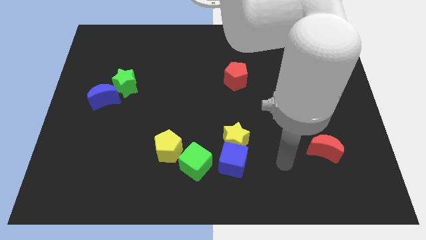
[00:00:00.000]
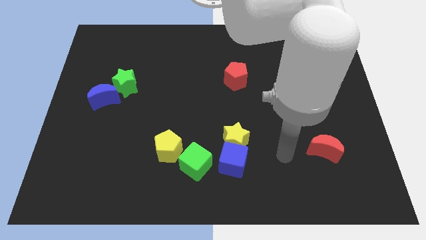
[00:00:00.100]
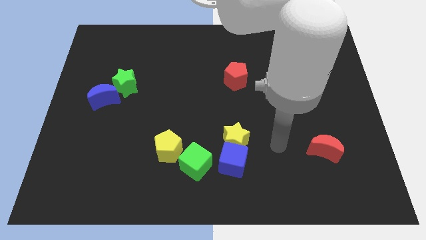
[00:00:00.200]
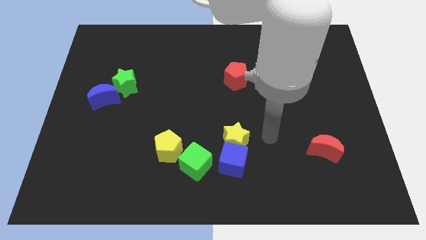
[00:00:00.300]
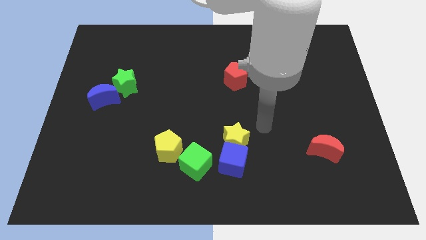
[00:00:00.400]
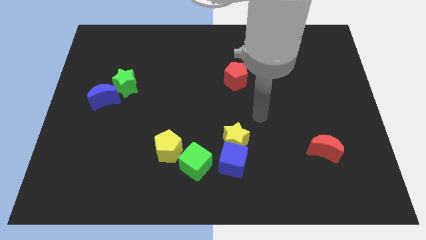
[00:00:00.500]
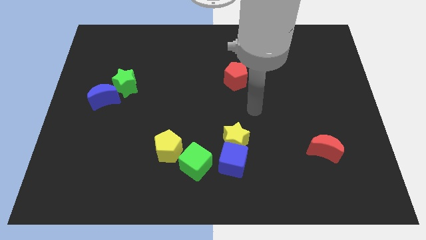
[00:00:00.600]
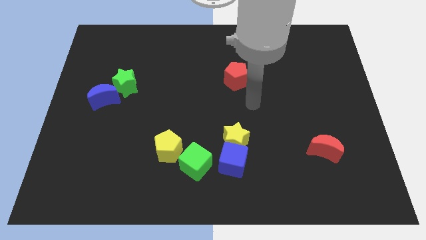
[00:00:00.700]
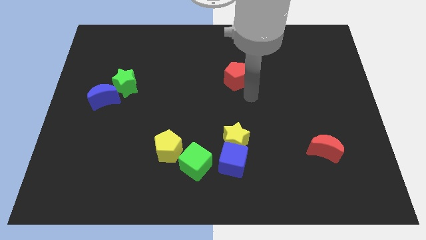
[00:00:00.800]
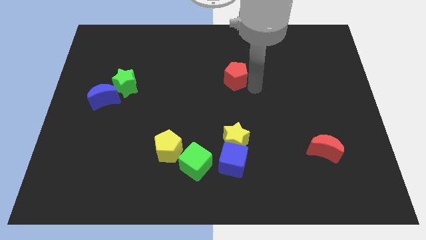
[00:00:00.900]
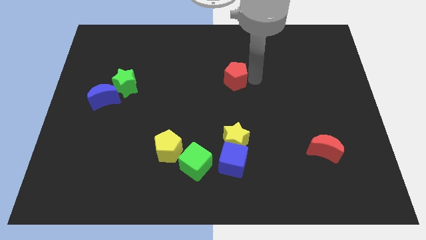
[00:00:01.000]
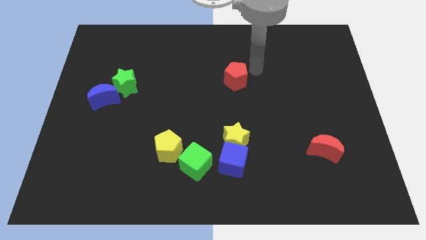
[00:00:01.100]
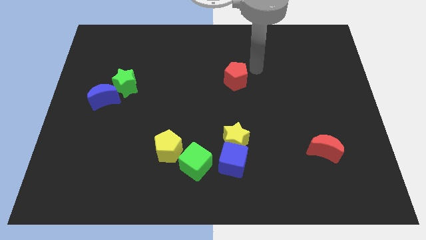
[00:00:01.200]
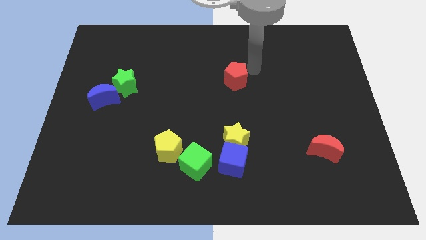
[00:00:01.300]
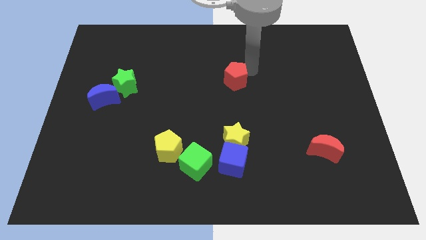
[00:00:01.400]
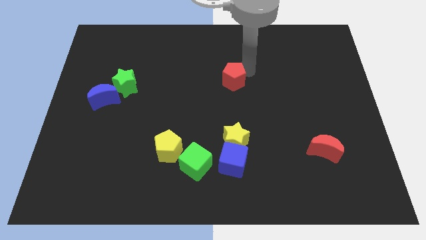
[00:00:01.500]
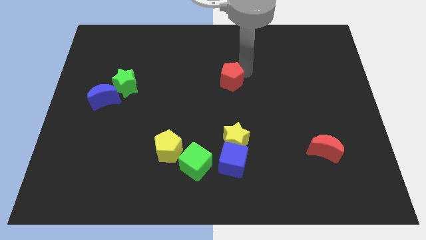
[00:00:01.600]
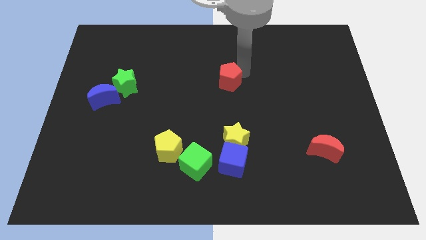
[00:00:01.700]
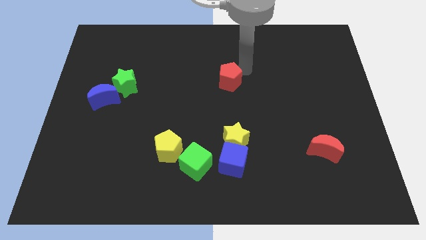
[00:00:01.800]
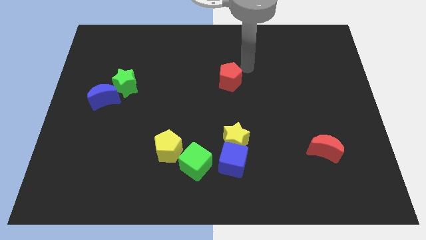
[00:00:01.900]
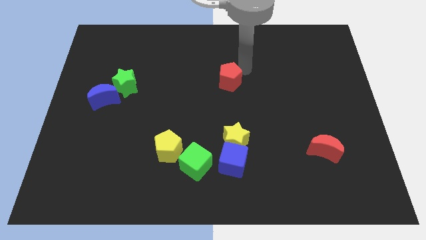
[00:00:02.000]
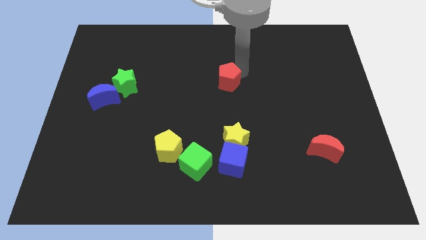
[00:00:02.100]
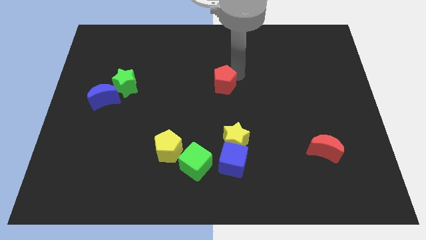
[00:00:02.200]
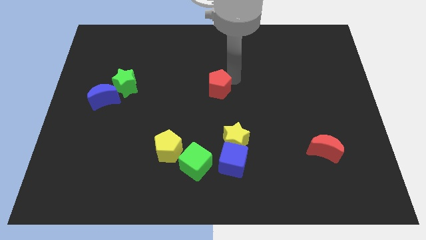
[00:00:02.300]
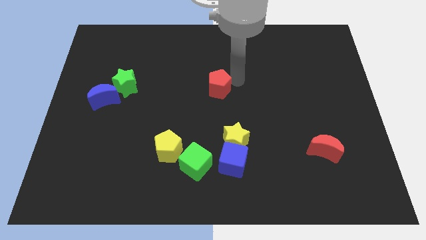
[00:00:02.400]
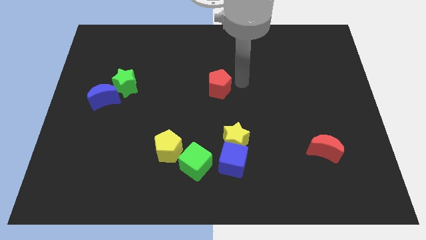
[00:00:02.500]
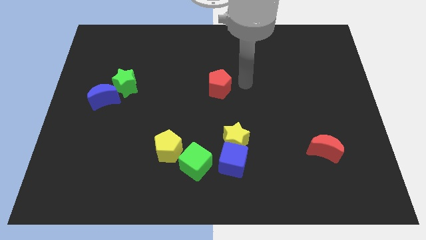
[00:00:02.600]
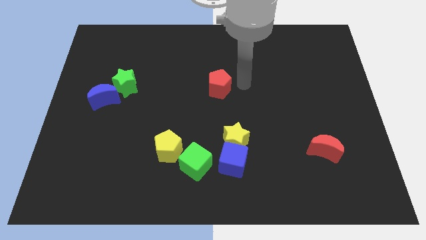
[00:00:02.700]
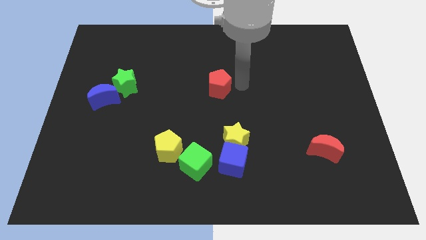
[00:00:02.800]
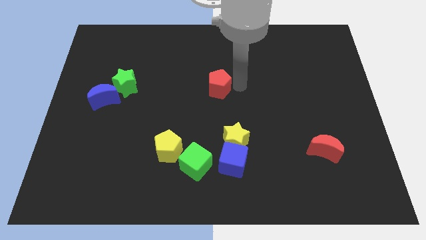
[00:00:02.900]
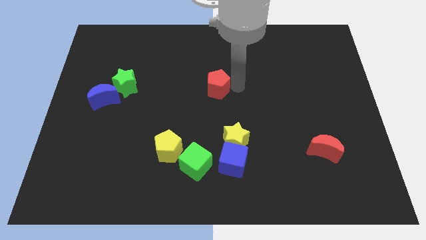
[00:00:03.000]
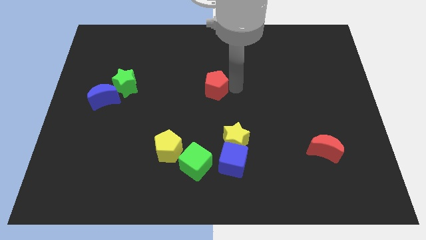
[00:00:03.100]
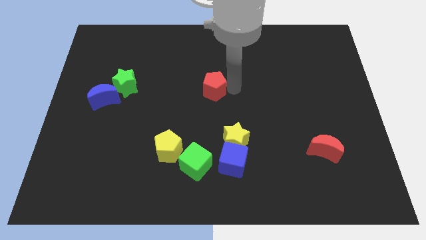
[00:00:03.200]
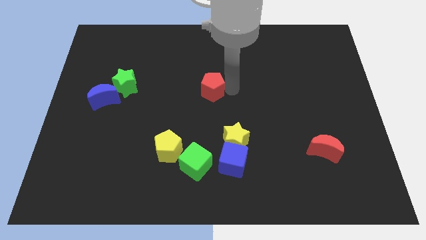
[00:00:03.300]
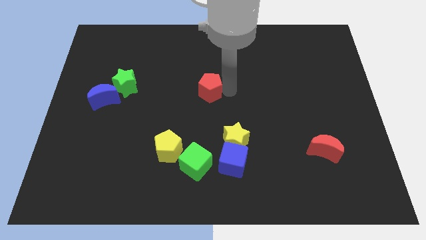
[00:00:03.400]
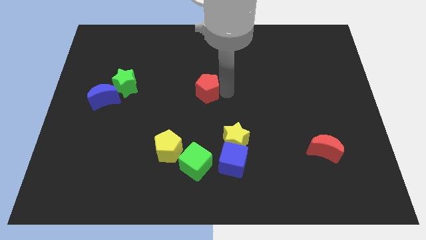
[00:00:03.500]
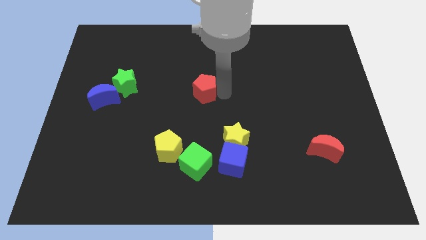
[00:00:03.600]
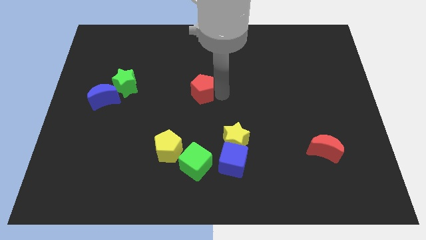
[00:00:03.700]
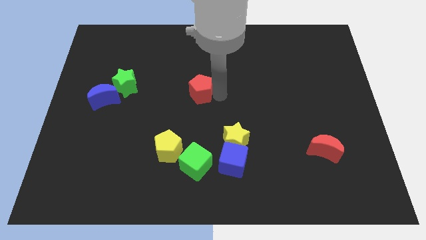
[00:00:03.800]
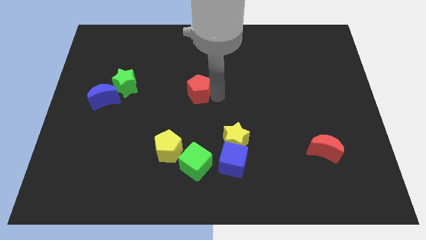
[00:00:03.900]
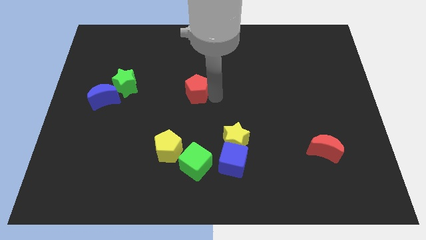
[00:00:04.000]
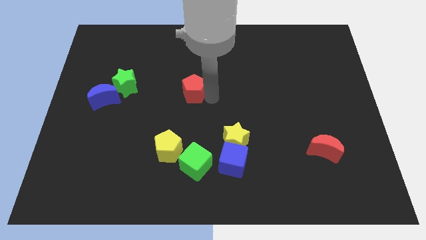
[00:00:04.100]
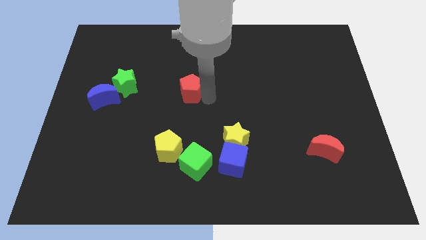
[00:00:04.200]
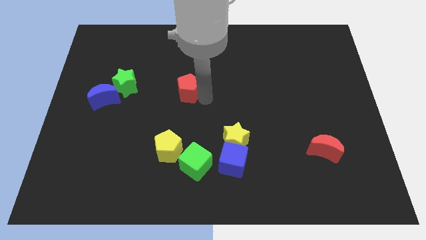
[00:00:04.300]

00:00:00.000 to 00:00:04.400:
move the red pentagon right of the green star

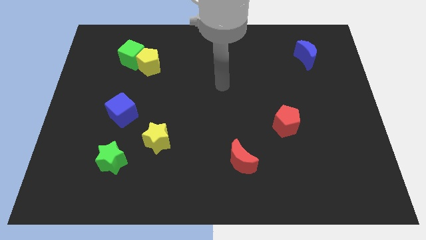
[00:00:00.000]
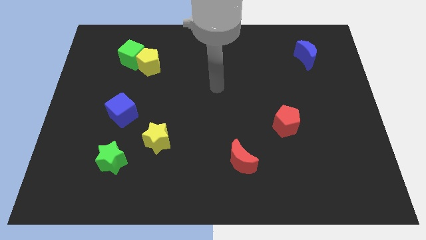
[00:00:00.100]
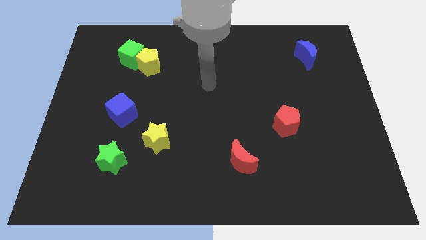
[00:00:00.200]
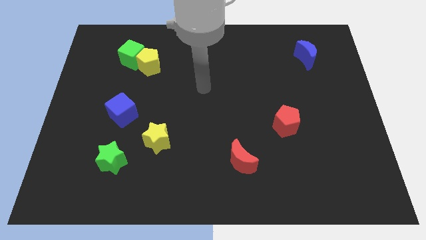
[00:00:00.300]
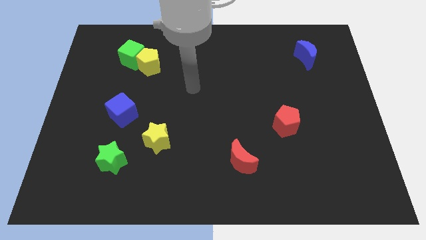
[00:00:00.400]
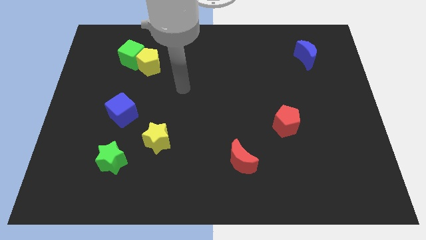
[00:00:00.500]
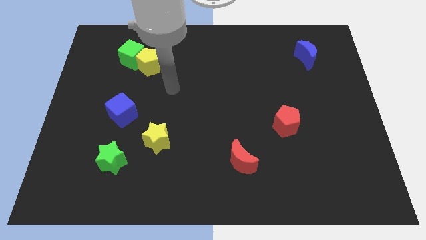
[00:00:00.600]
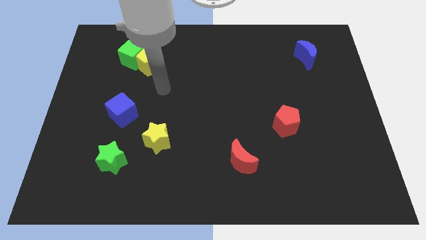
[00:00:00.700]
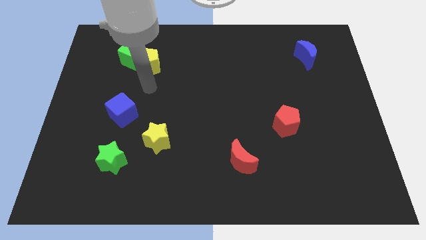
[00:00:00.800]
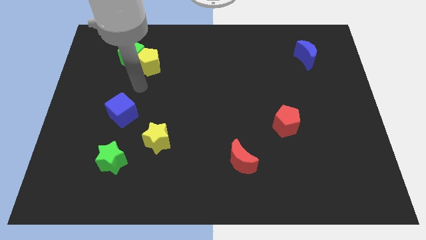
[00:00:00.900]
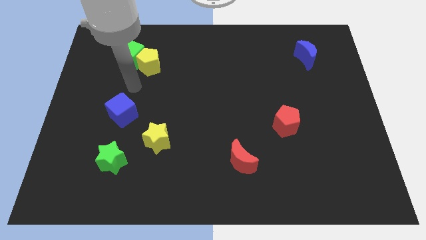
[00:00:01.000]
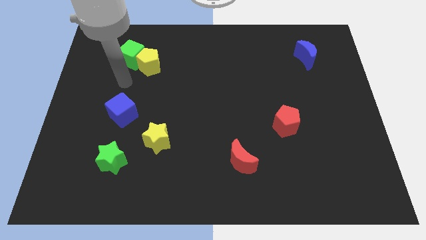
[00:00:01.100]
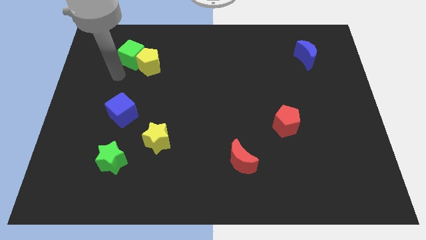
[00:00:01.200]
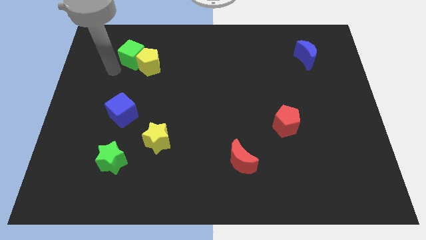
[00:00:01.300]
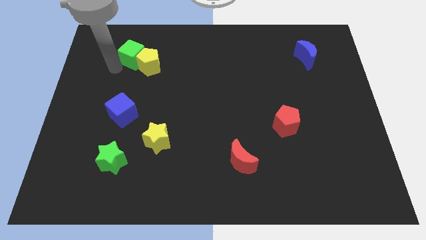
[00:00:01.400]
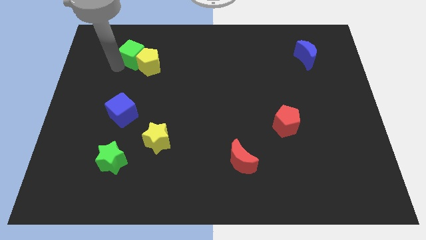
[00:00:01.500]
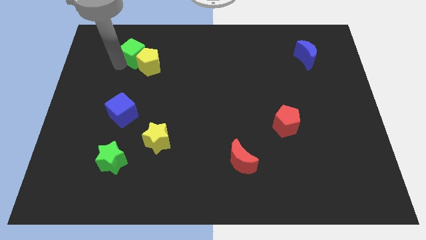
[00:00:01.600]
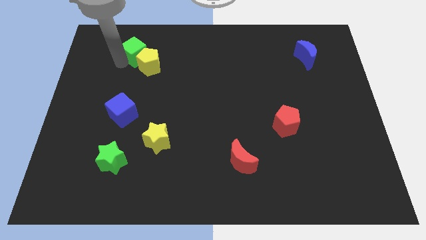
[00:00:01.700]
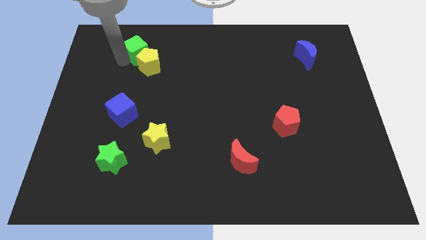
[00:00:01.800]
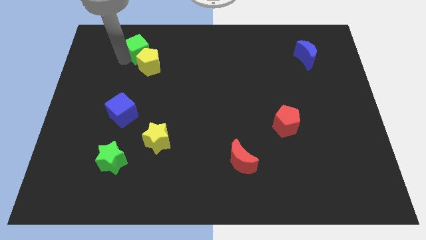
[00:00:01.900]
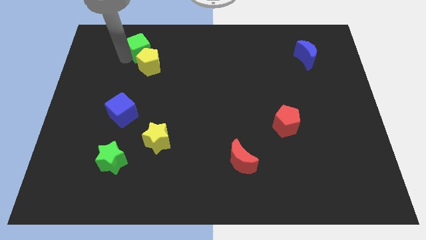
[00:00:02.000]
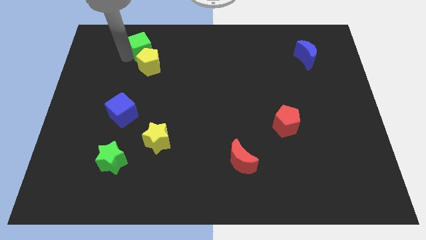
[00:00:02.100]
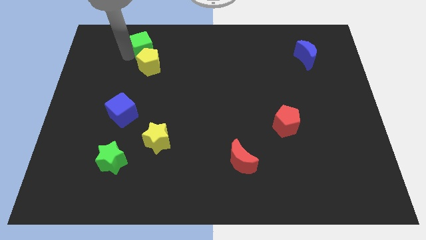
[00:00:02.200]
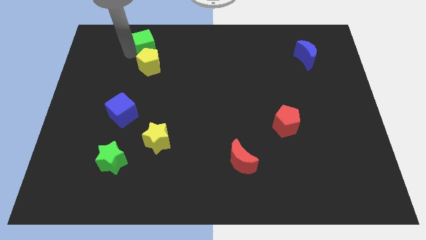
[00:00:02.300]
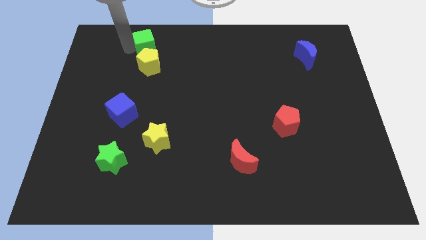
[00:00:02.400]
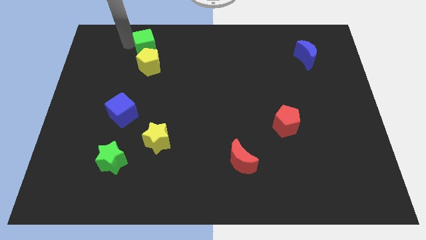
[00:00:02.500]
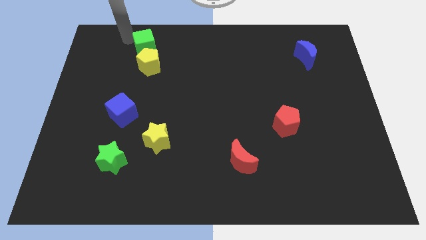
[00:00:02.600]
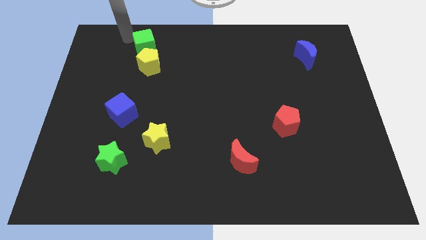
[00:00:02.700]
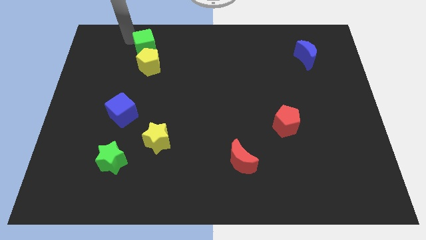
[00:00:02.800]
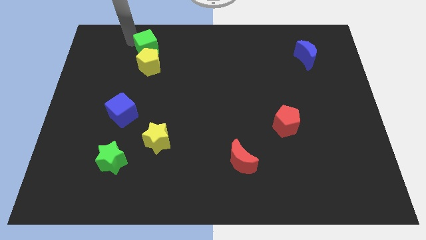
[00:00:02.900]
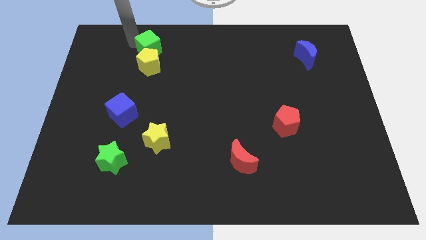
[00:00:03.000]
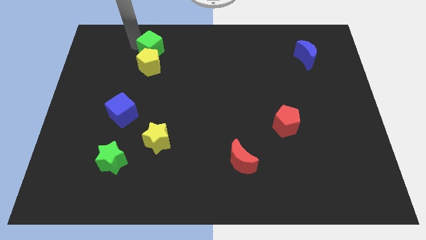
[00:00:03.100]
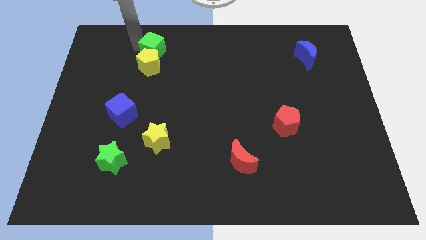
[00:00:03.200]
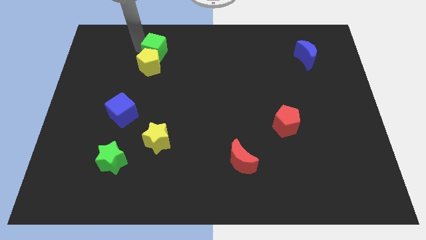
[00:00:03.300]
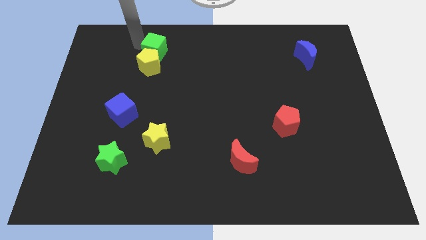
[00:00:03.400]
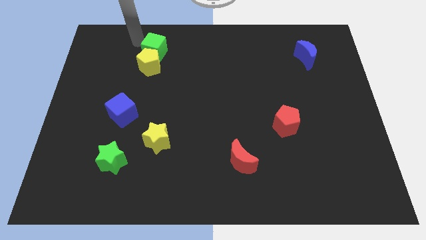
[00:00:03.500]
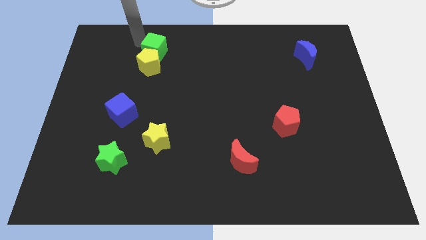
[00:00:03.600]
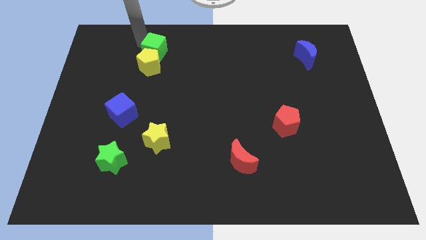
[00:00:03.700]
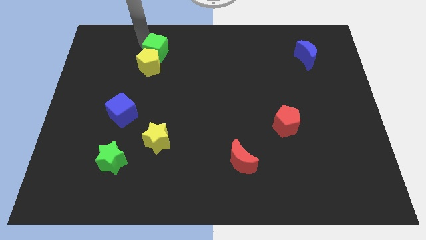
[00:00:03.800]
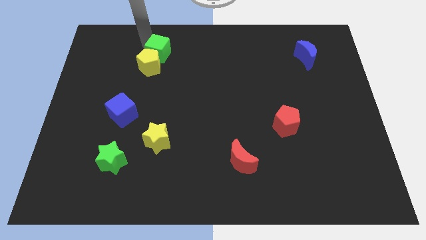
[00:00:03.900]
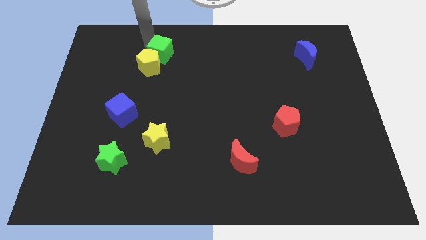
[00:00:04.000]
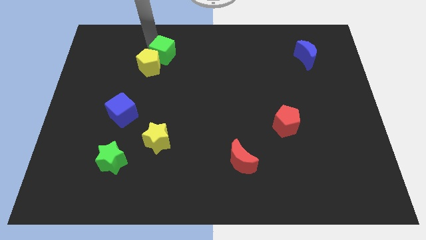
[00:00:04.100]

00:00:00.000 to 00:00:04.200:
push the green cube right of the yellow pentagon
